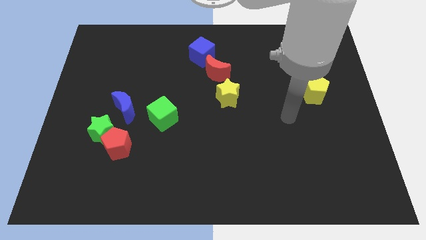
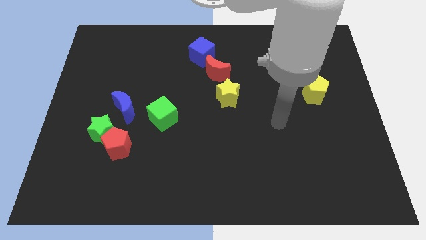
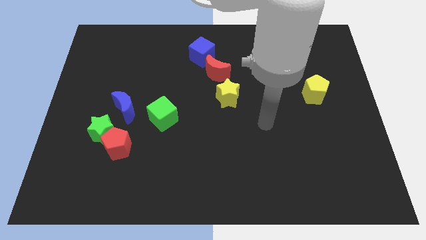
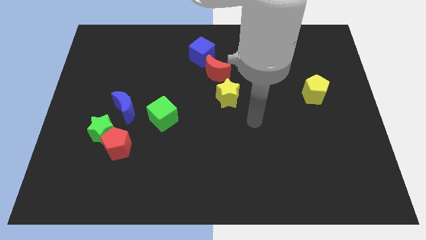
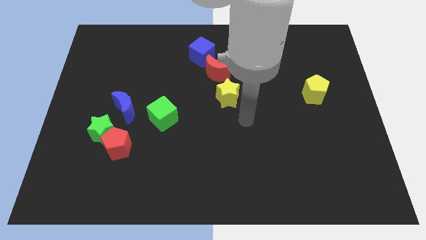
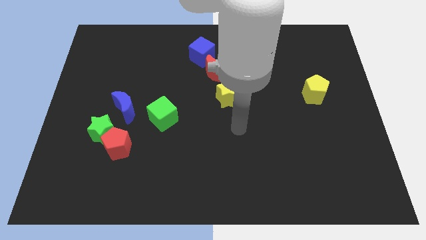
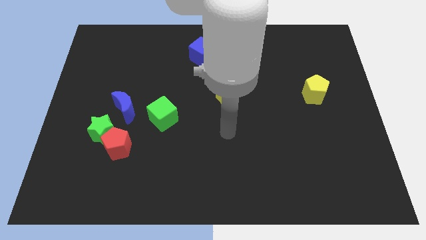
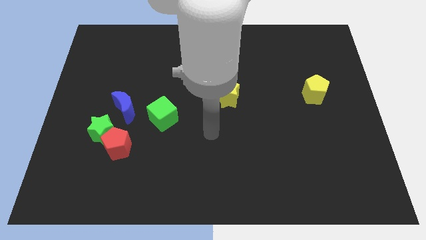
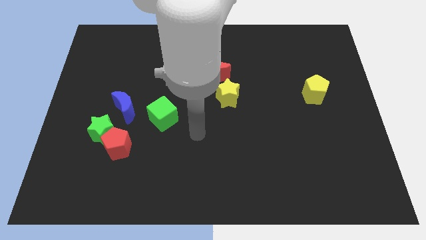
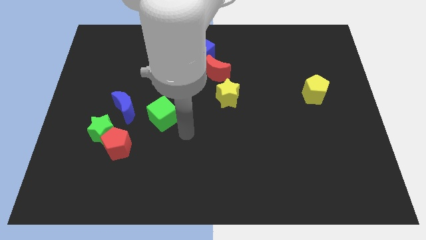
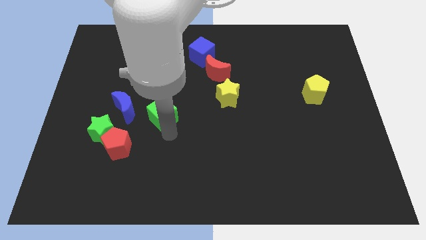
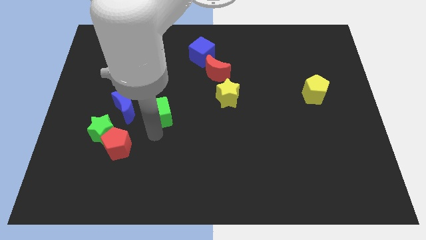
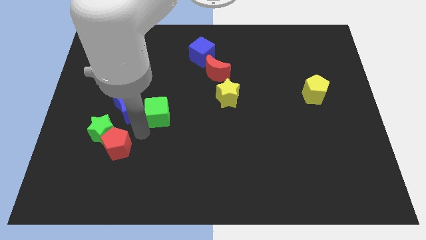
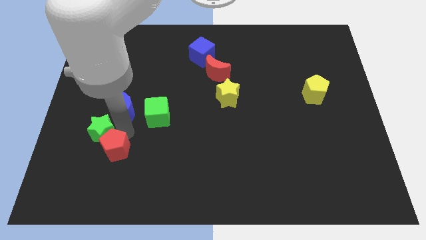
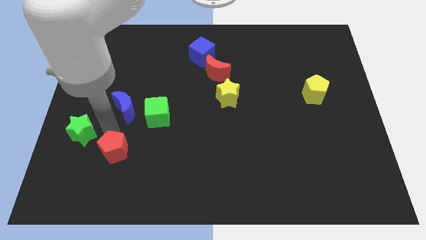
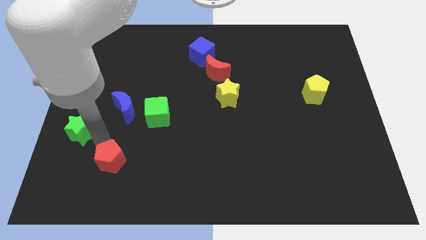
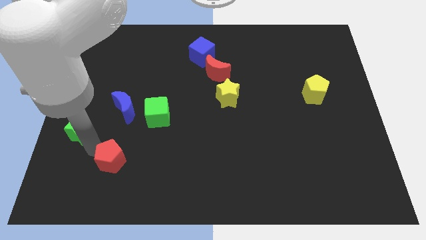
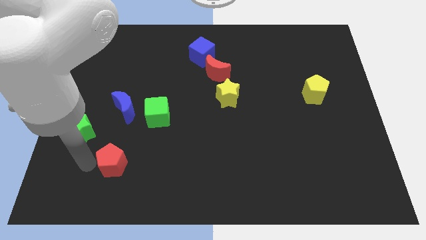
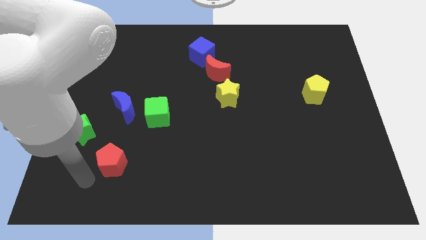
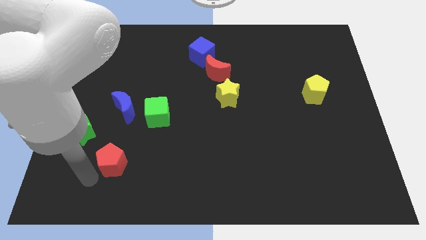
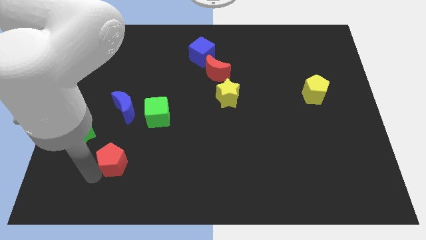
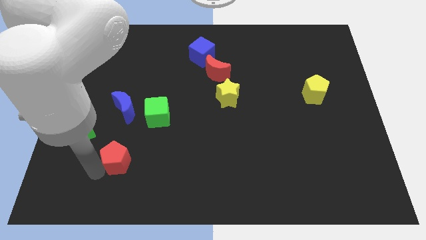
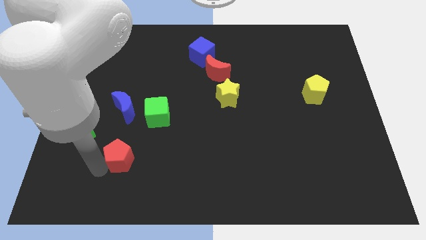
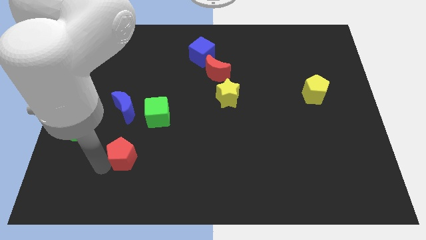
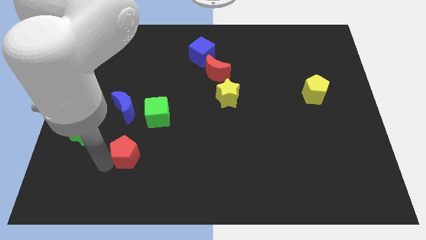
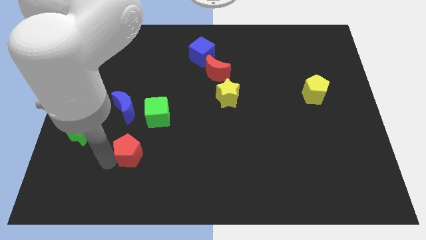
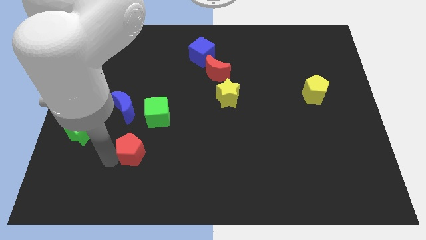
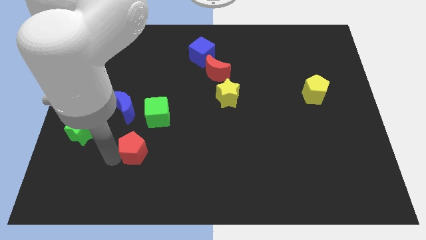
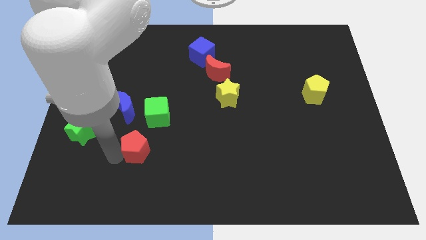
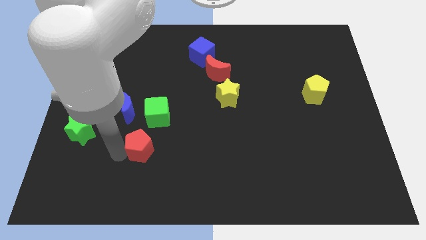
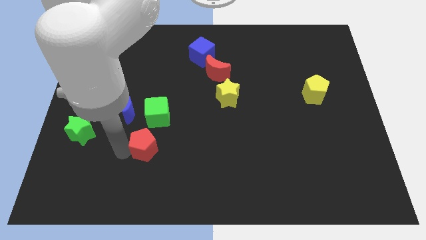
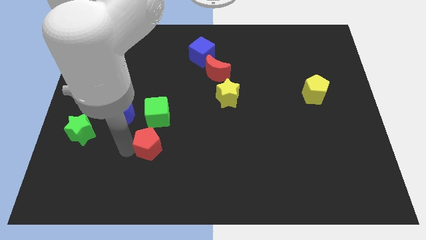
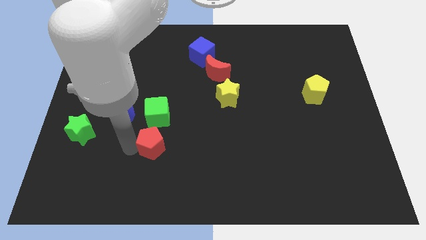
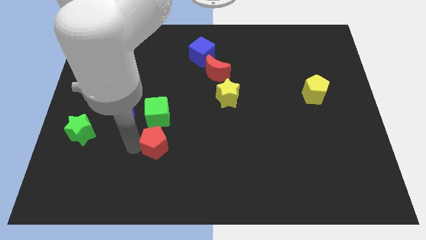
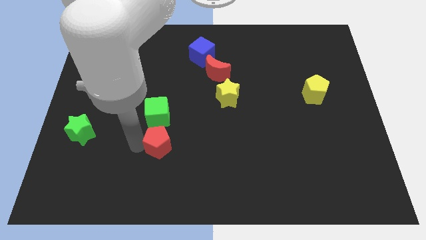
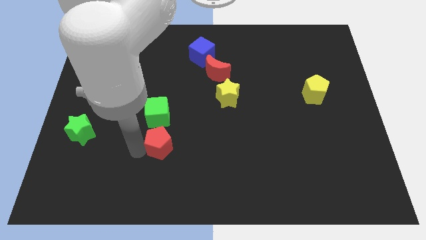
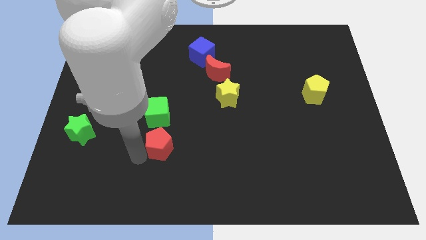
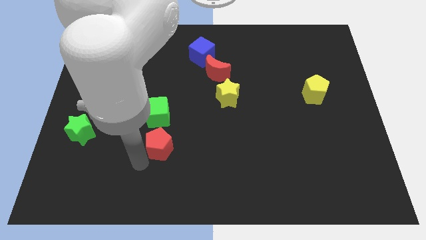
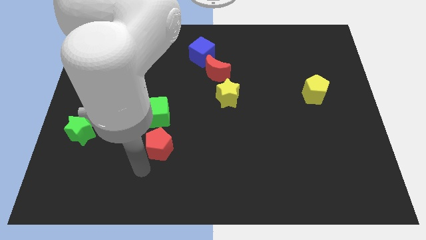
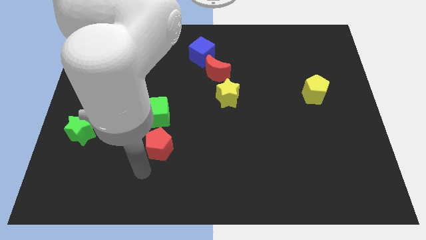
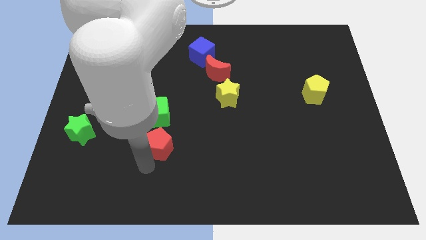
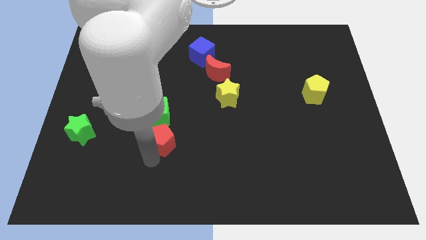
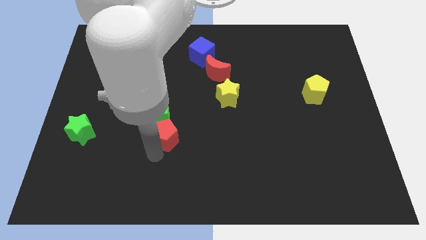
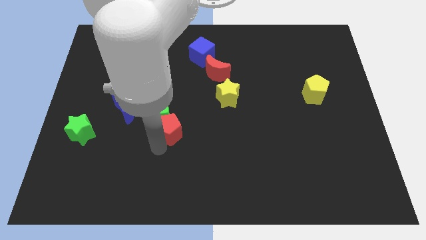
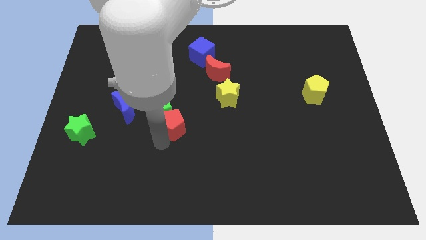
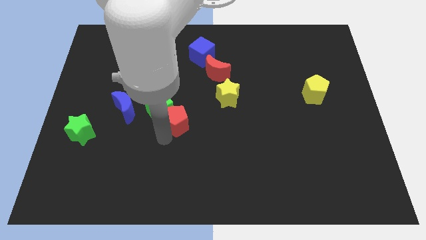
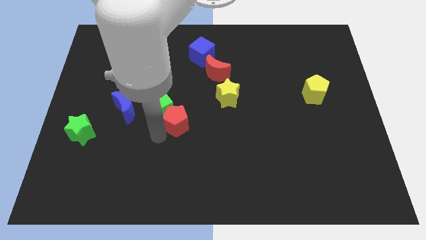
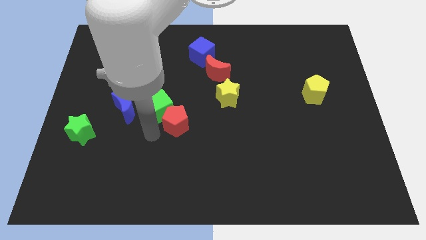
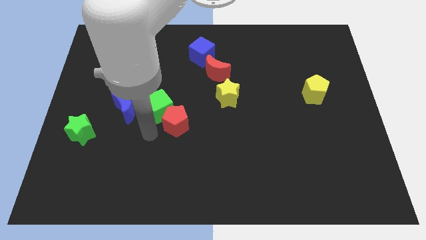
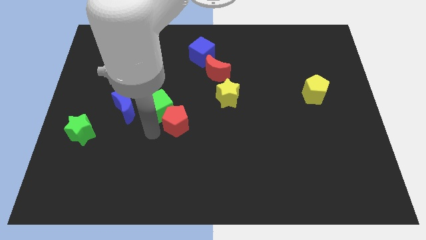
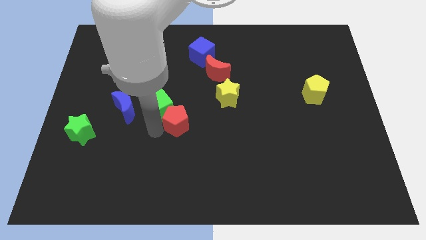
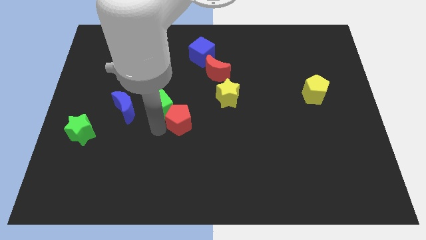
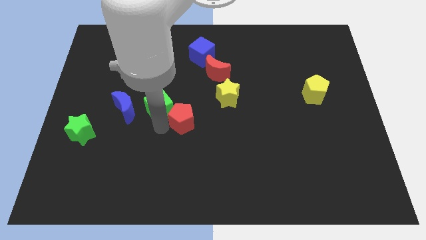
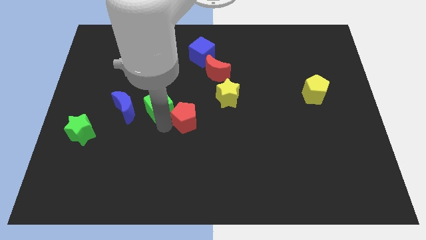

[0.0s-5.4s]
push the red pentagon diagonally down and to the left of the yellow star

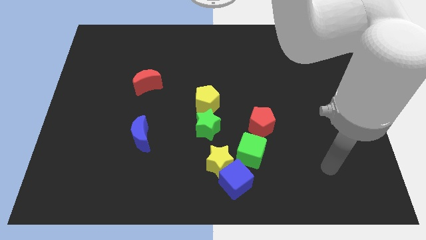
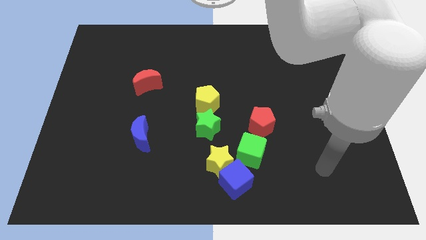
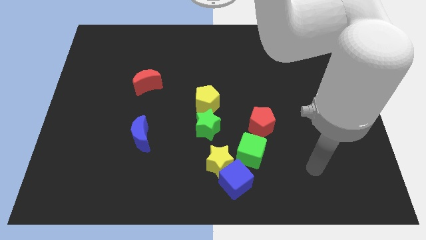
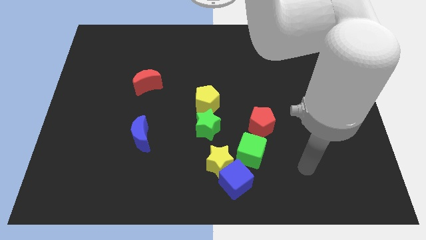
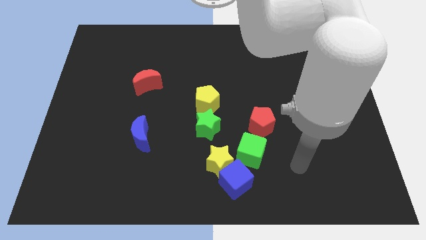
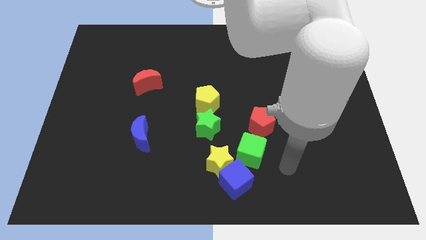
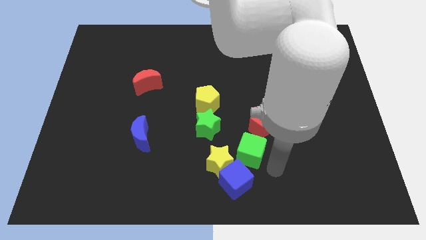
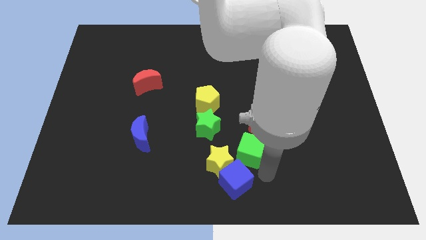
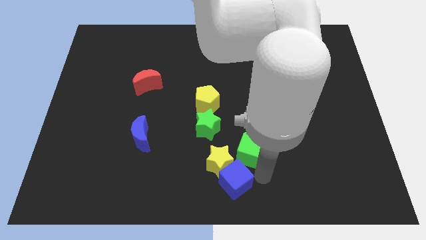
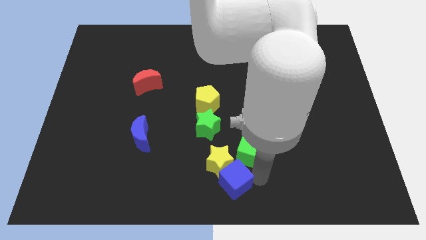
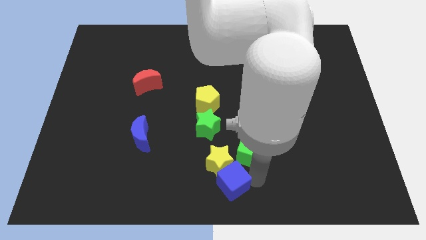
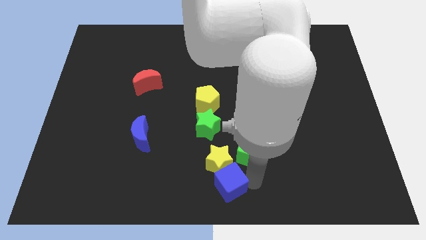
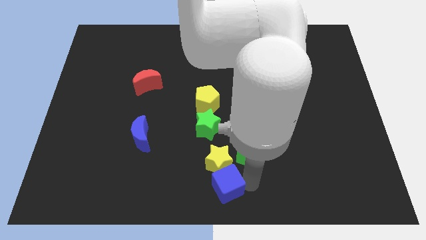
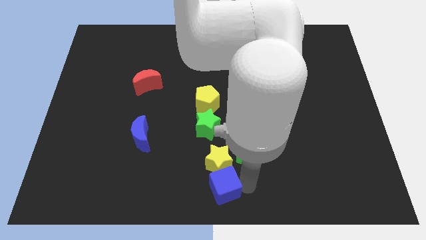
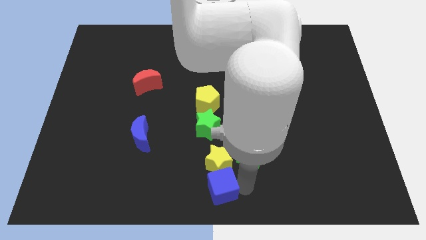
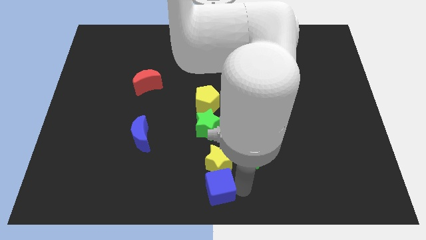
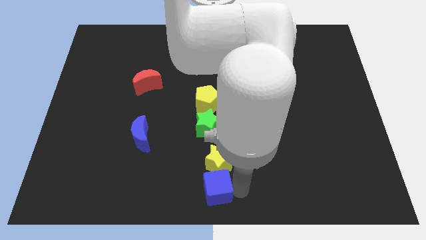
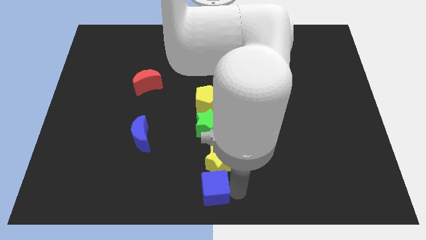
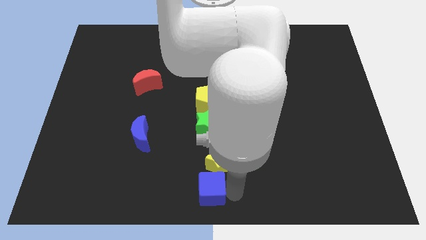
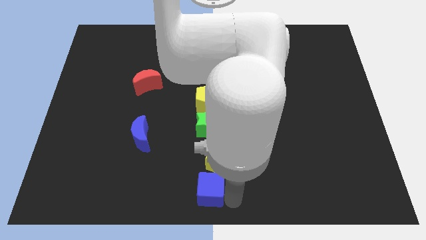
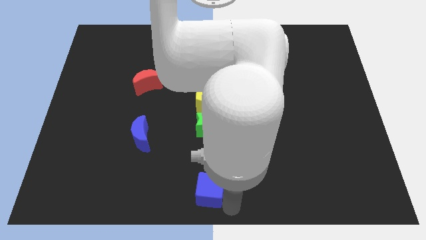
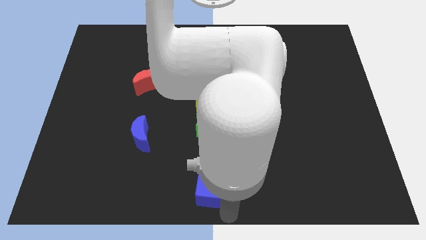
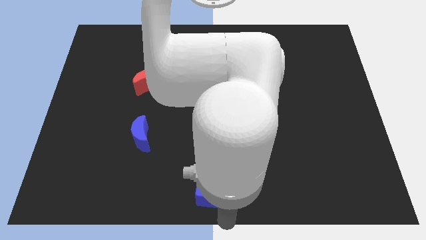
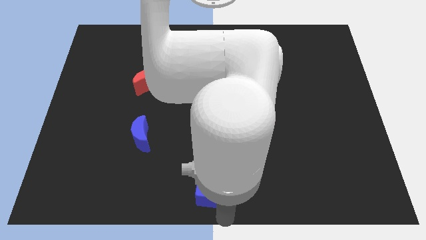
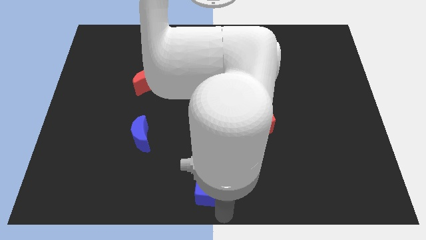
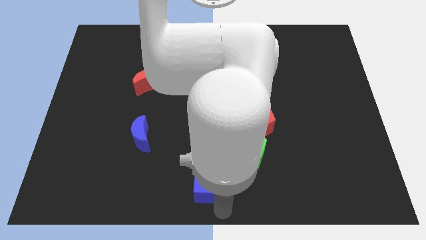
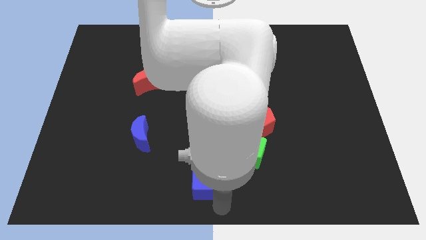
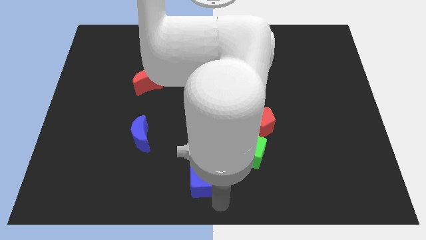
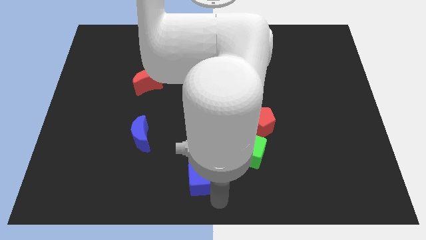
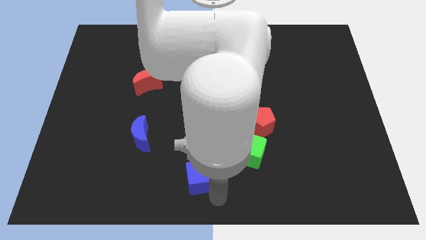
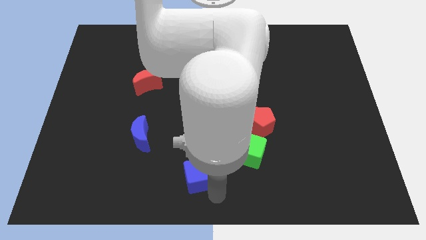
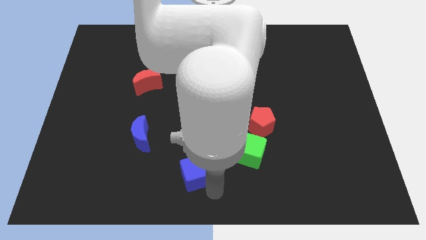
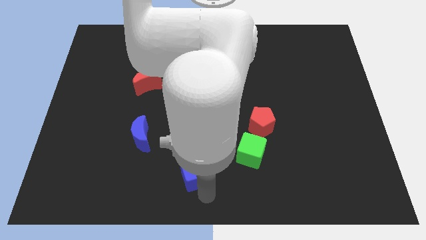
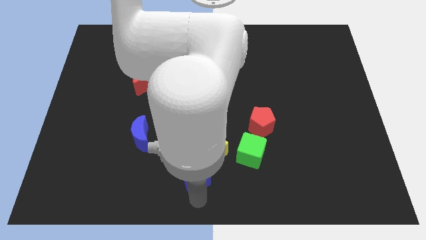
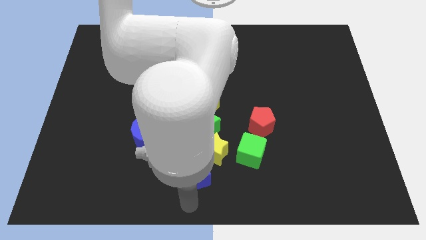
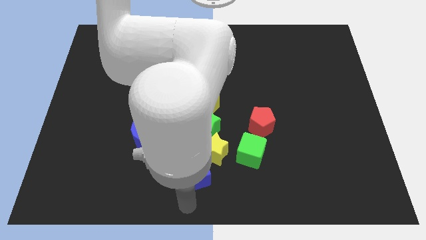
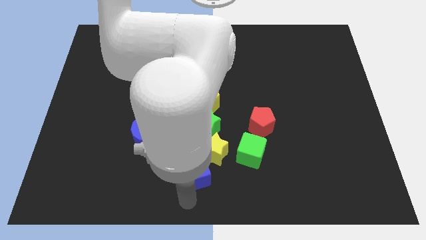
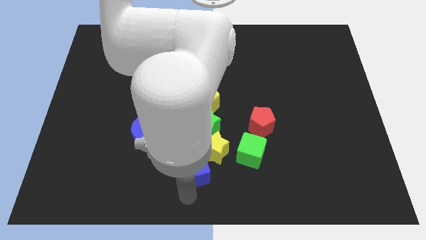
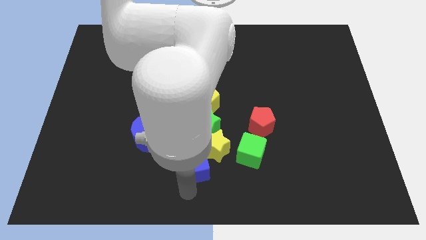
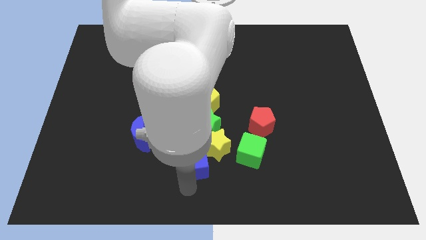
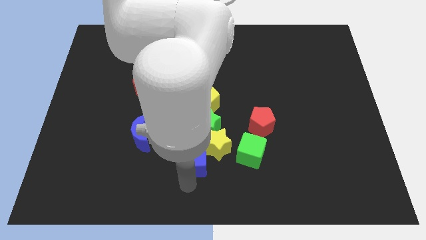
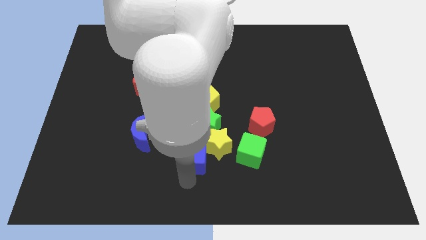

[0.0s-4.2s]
move the blue cube below the yellow pentagon
